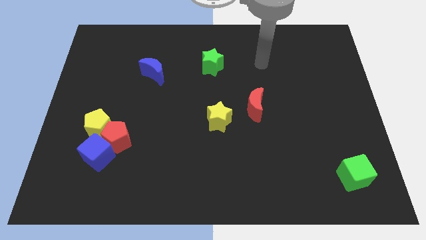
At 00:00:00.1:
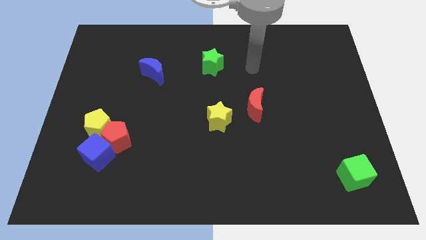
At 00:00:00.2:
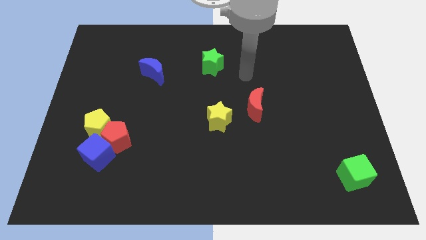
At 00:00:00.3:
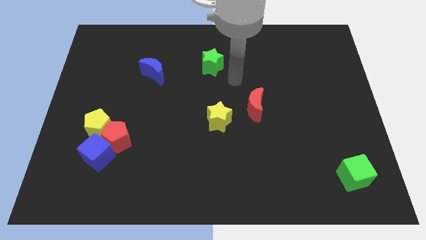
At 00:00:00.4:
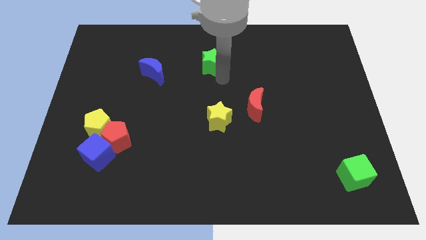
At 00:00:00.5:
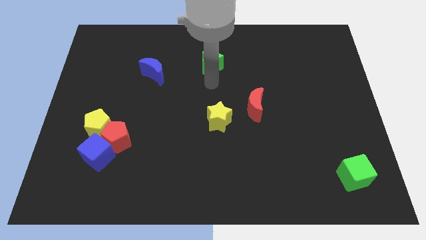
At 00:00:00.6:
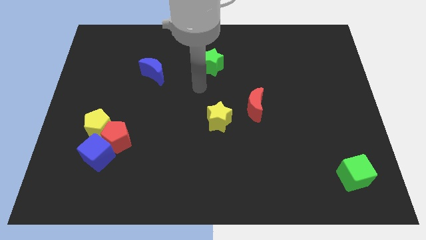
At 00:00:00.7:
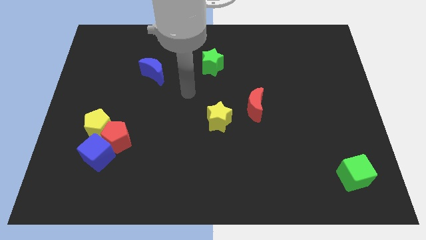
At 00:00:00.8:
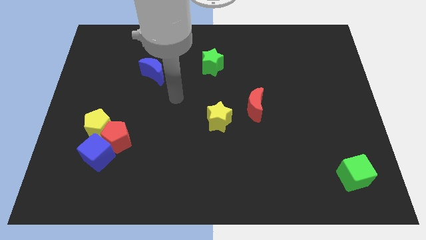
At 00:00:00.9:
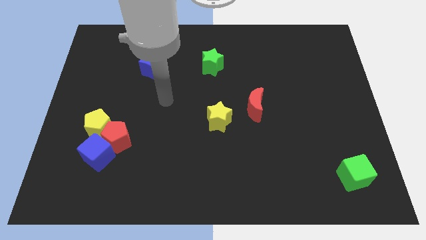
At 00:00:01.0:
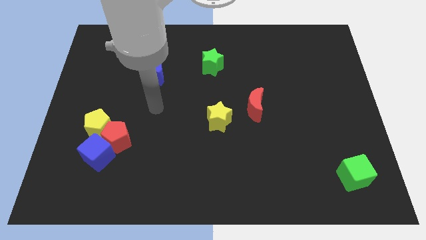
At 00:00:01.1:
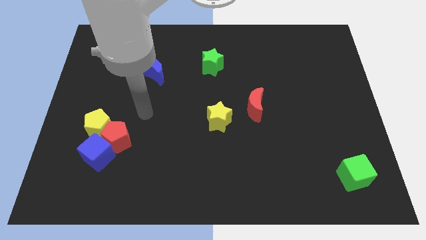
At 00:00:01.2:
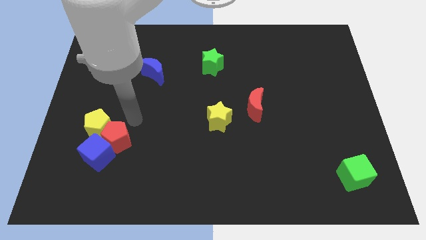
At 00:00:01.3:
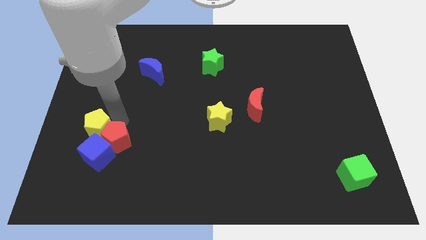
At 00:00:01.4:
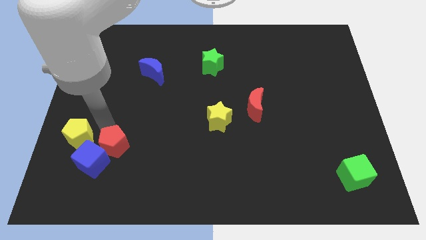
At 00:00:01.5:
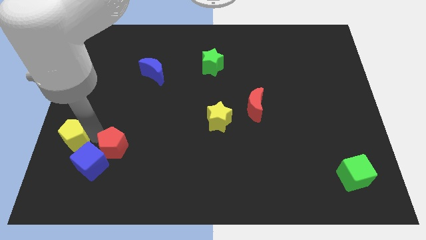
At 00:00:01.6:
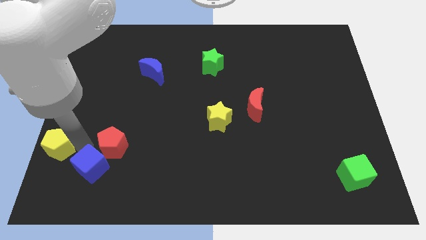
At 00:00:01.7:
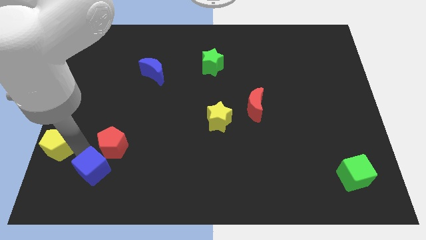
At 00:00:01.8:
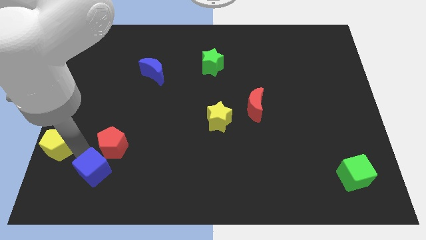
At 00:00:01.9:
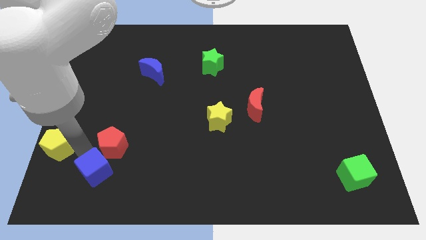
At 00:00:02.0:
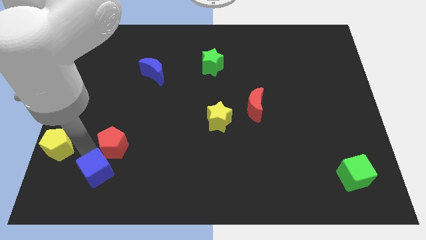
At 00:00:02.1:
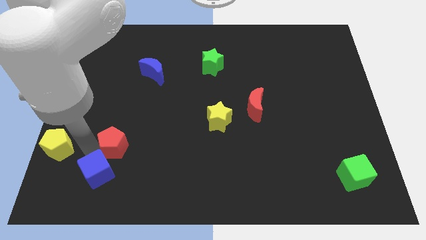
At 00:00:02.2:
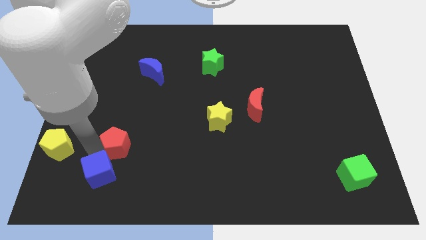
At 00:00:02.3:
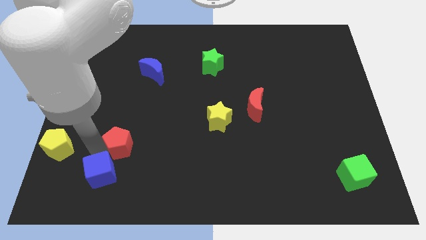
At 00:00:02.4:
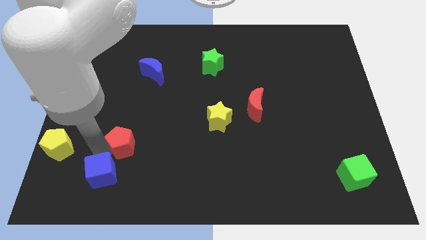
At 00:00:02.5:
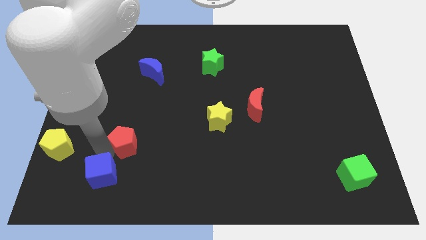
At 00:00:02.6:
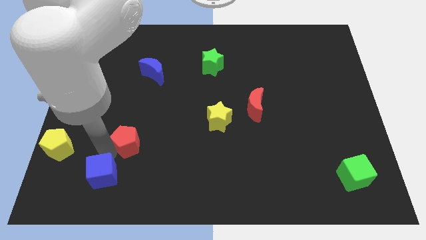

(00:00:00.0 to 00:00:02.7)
move the red pentagon away from the blue cube and yellow pentagon

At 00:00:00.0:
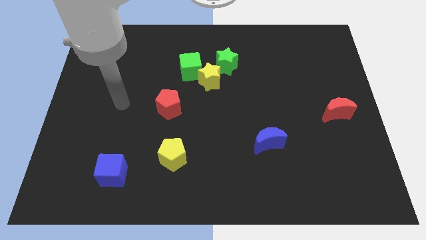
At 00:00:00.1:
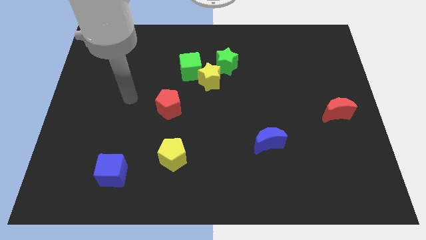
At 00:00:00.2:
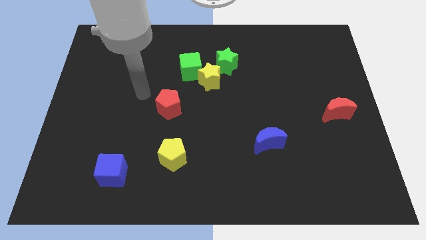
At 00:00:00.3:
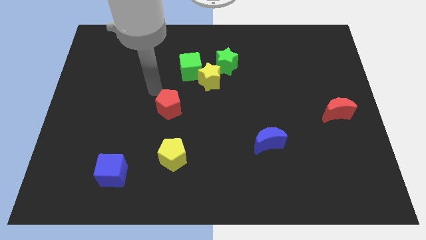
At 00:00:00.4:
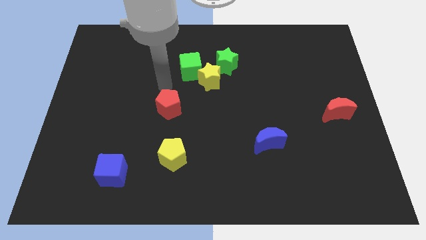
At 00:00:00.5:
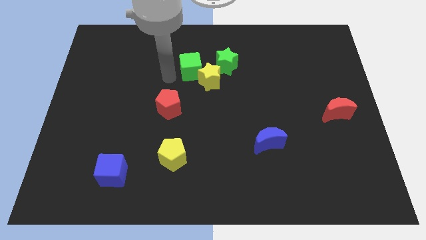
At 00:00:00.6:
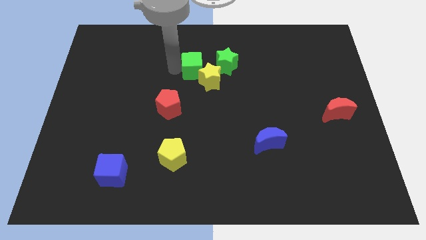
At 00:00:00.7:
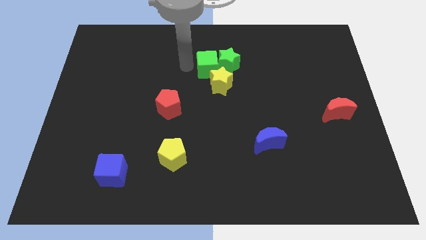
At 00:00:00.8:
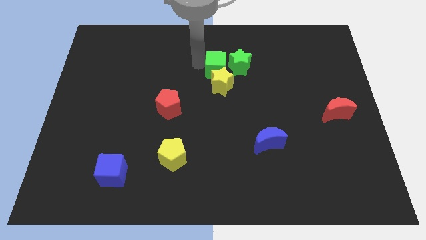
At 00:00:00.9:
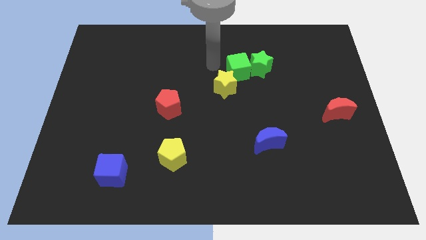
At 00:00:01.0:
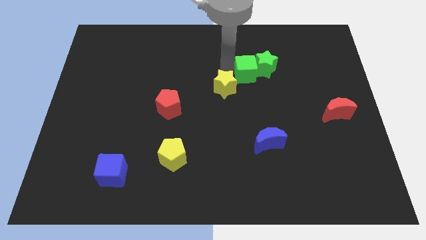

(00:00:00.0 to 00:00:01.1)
pull the yellow star apart from the green cube and green star

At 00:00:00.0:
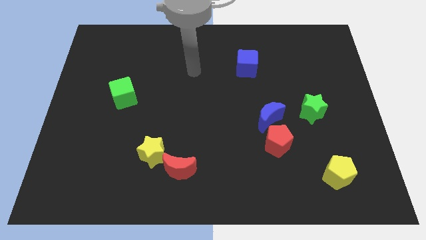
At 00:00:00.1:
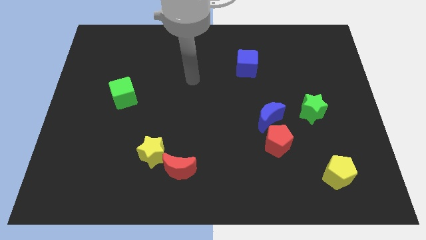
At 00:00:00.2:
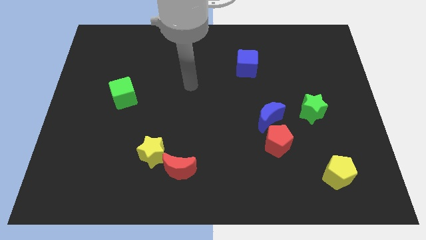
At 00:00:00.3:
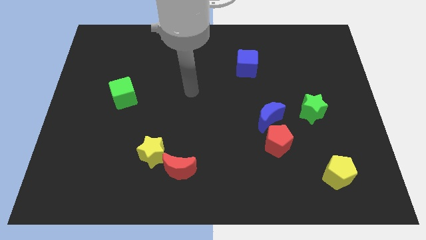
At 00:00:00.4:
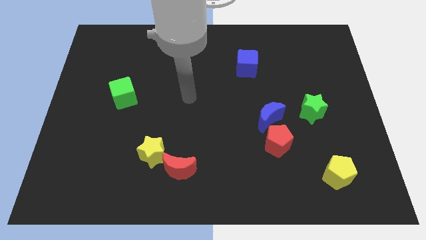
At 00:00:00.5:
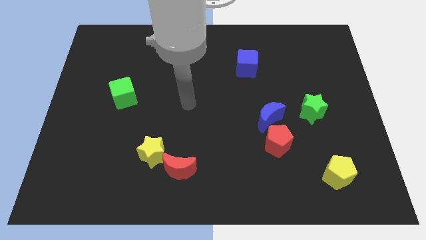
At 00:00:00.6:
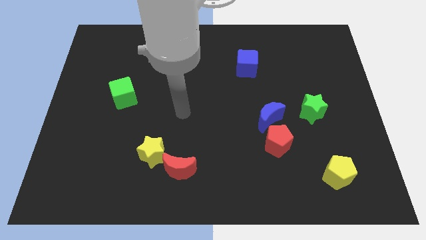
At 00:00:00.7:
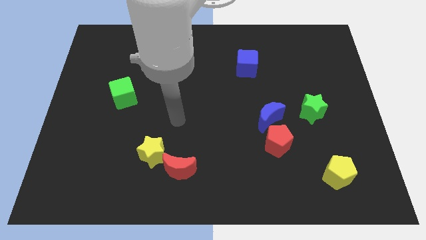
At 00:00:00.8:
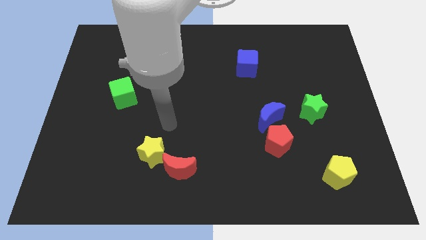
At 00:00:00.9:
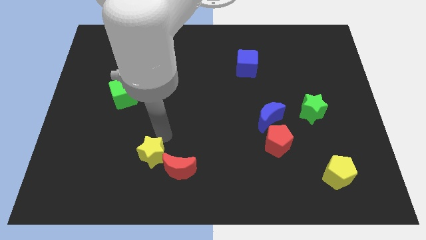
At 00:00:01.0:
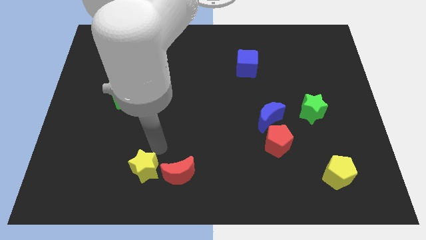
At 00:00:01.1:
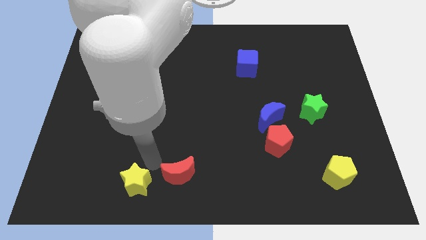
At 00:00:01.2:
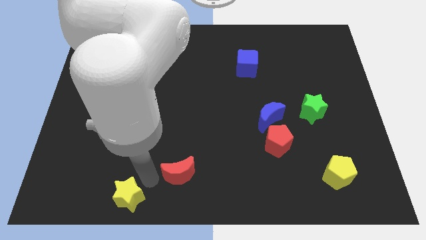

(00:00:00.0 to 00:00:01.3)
pull the red moon apart from the yellow star

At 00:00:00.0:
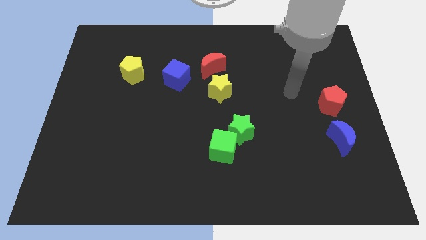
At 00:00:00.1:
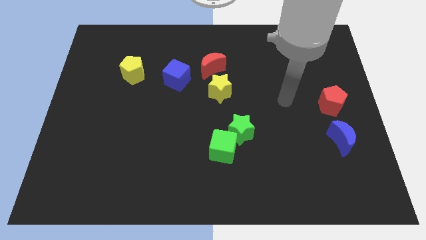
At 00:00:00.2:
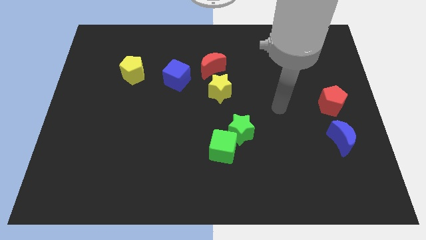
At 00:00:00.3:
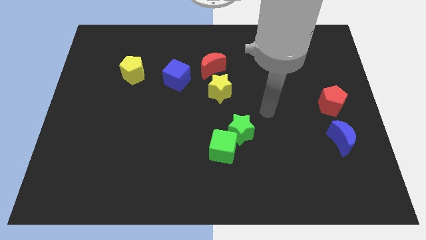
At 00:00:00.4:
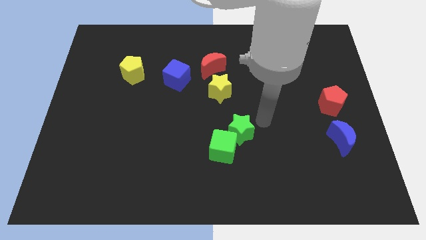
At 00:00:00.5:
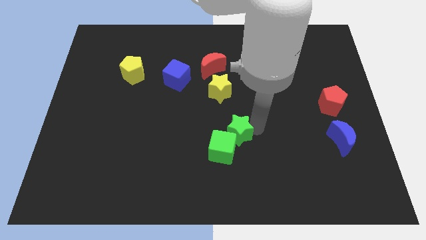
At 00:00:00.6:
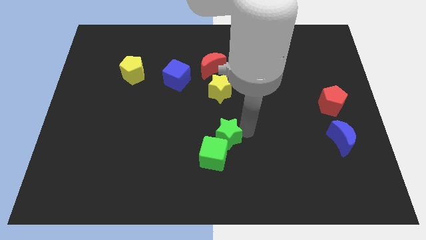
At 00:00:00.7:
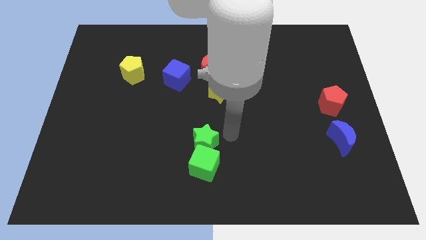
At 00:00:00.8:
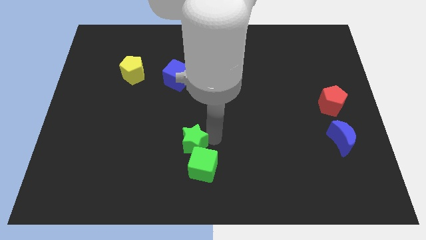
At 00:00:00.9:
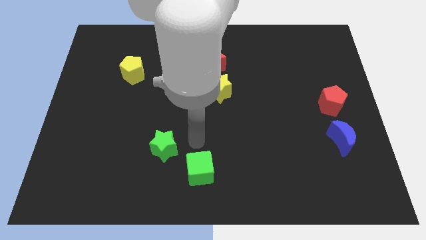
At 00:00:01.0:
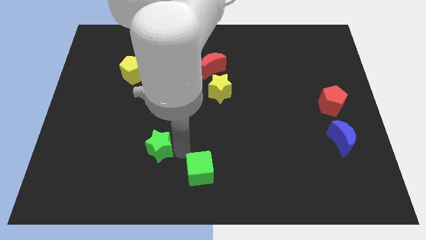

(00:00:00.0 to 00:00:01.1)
separate the green cube from the green star

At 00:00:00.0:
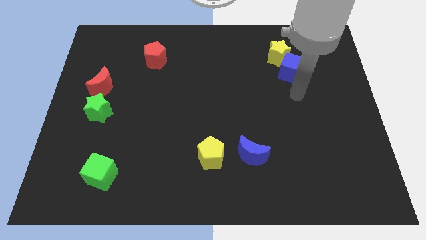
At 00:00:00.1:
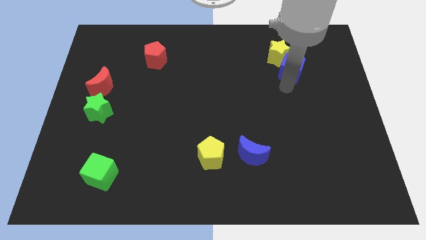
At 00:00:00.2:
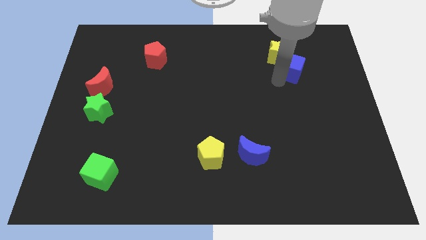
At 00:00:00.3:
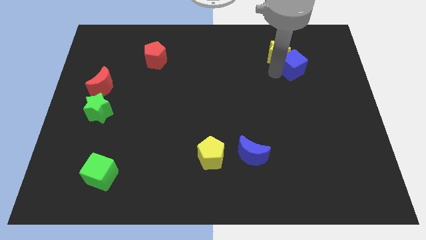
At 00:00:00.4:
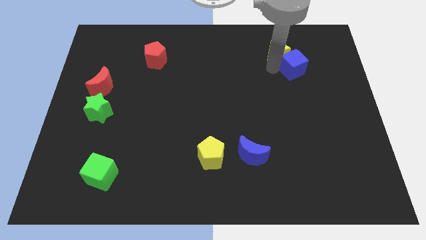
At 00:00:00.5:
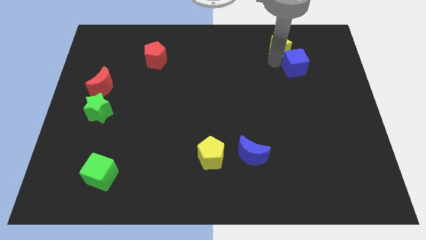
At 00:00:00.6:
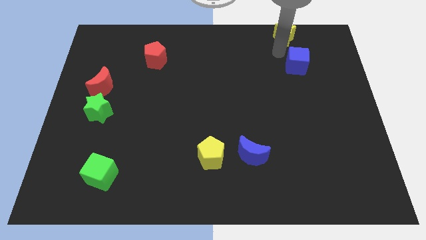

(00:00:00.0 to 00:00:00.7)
separate the blue cube from the yellow star

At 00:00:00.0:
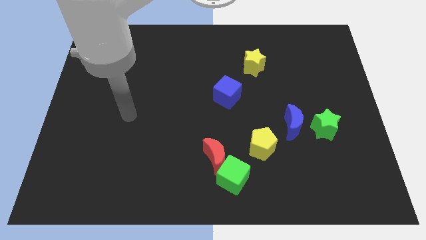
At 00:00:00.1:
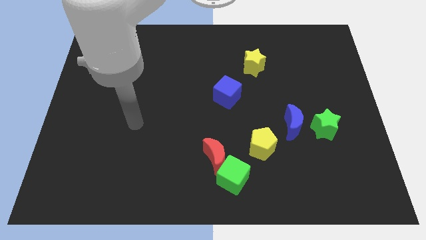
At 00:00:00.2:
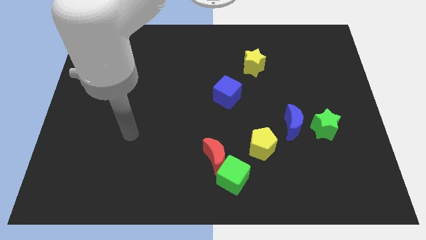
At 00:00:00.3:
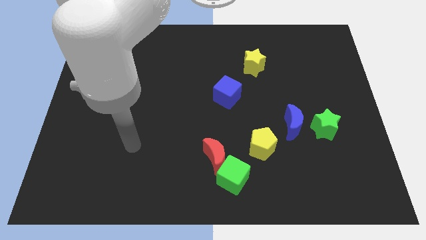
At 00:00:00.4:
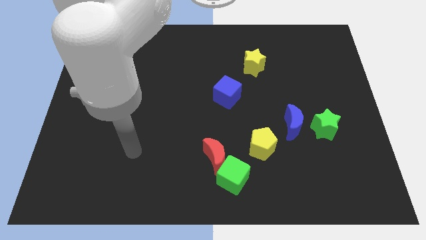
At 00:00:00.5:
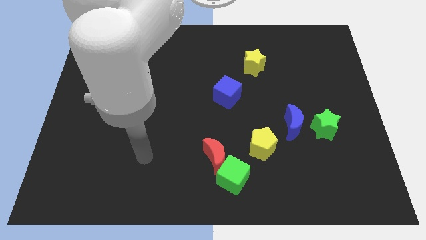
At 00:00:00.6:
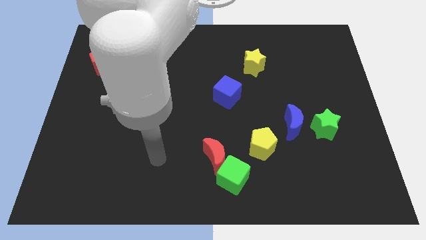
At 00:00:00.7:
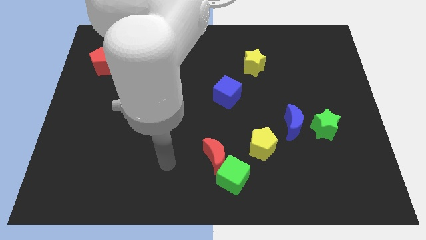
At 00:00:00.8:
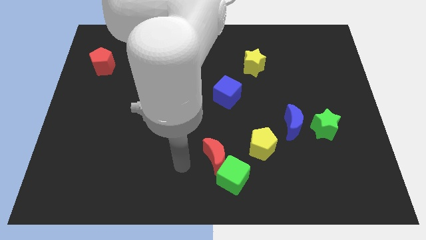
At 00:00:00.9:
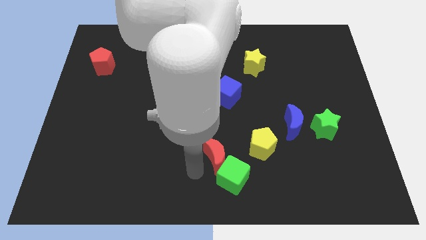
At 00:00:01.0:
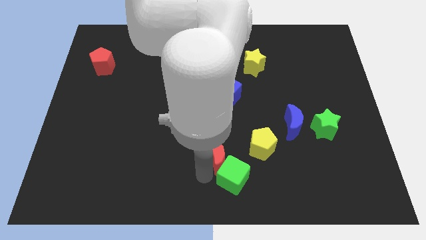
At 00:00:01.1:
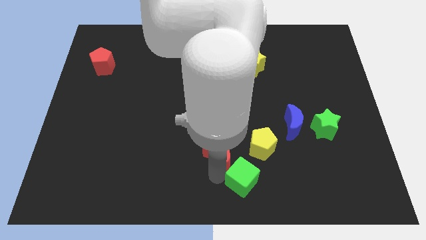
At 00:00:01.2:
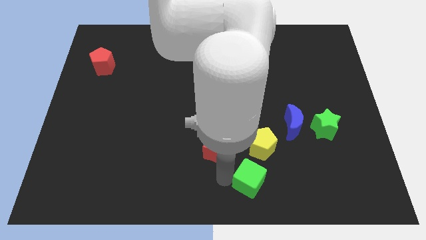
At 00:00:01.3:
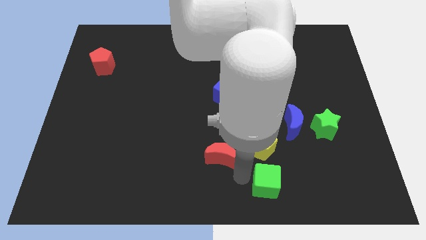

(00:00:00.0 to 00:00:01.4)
pull the red moon apart from the green cube

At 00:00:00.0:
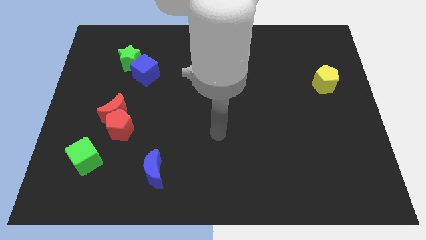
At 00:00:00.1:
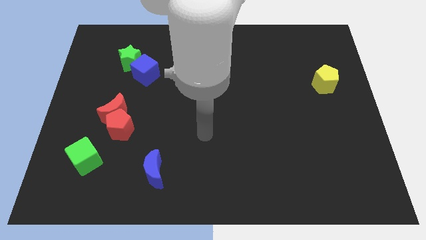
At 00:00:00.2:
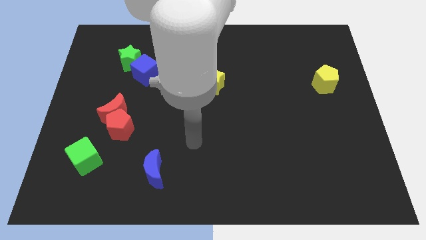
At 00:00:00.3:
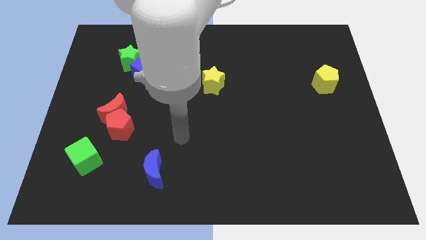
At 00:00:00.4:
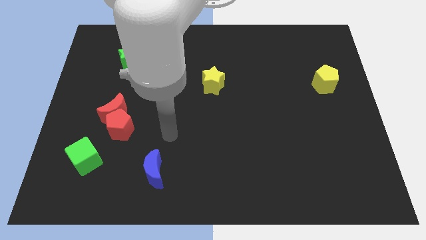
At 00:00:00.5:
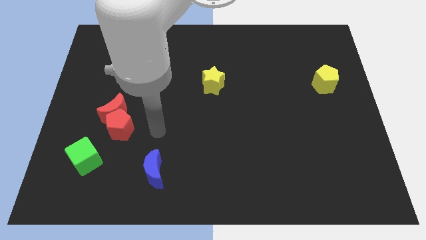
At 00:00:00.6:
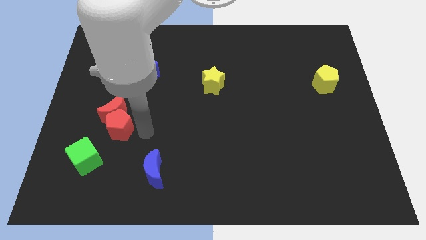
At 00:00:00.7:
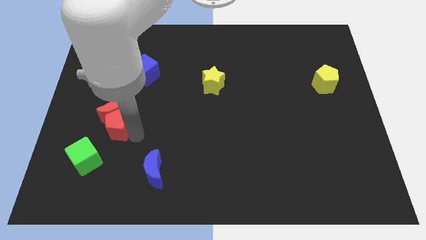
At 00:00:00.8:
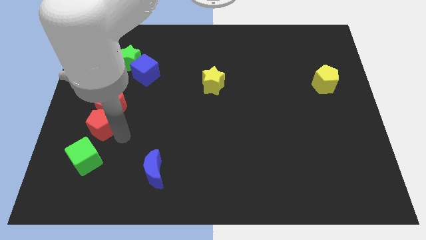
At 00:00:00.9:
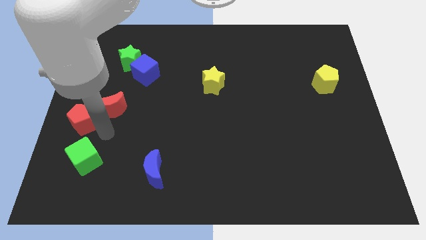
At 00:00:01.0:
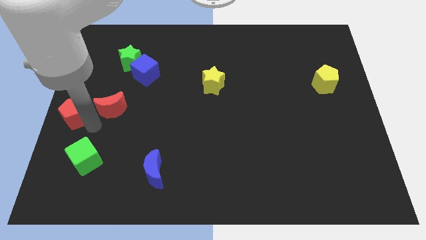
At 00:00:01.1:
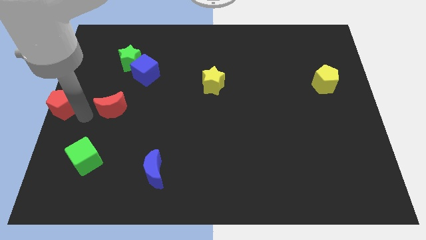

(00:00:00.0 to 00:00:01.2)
move the red moon away from the red pentagon
